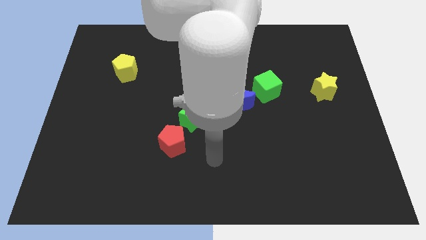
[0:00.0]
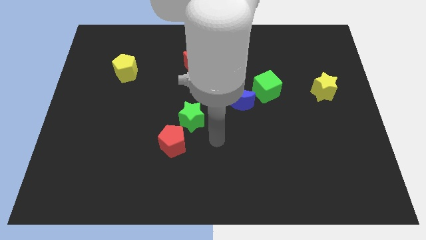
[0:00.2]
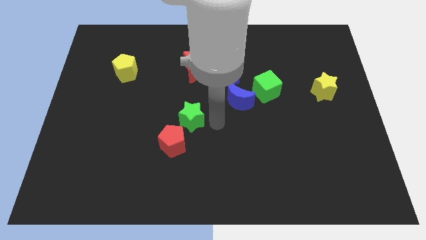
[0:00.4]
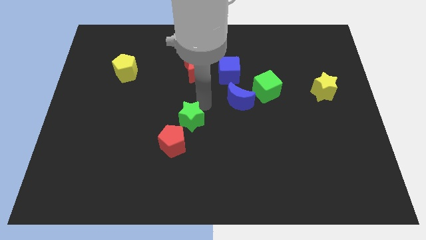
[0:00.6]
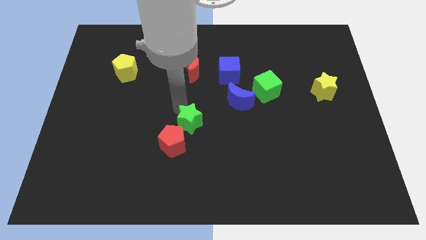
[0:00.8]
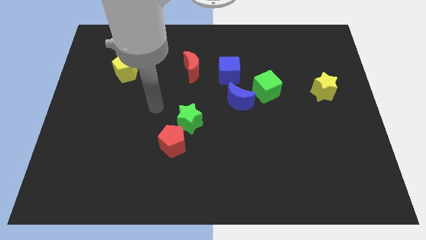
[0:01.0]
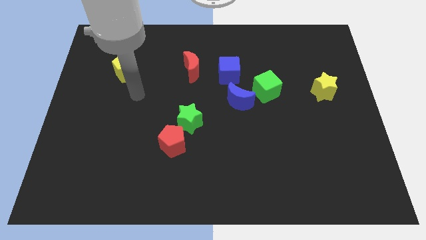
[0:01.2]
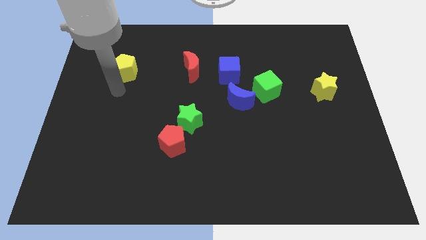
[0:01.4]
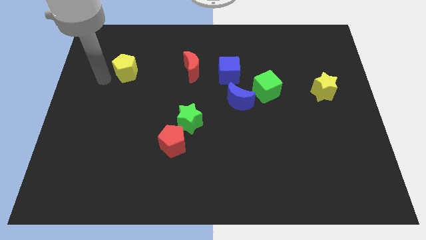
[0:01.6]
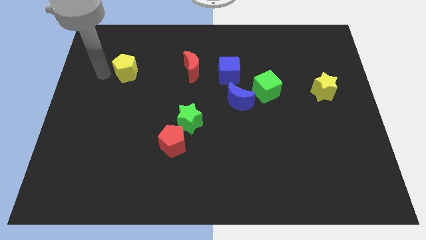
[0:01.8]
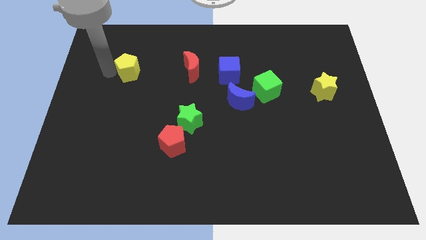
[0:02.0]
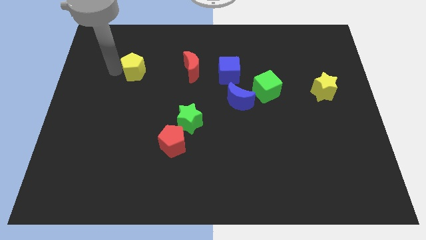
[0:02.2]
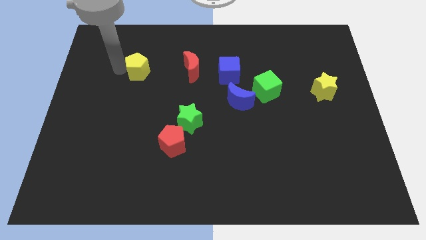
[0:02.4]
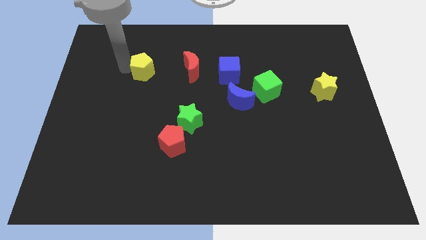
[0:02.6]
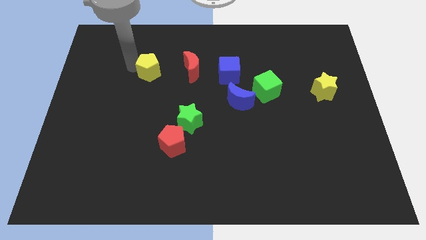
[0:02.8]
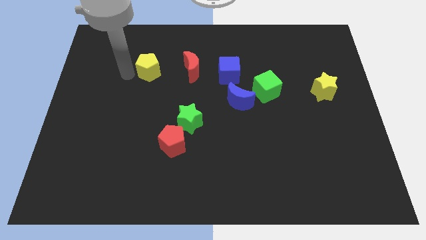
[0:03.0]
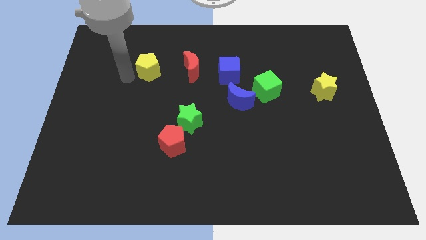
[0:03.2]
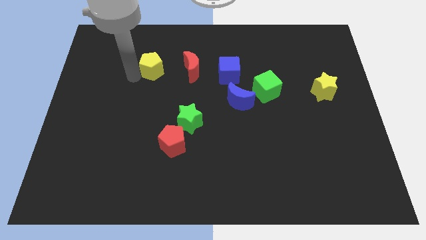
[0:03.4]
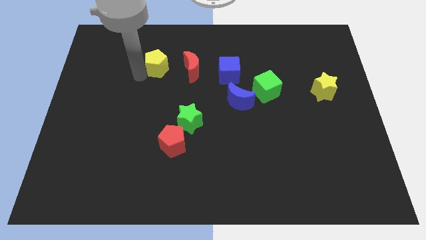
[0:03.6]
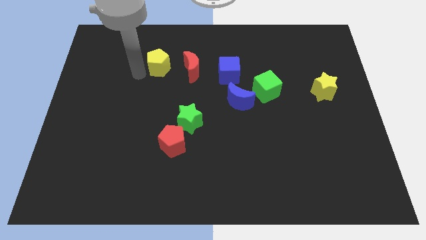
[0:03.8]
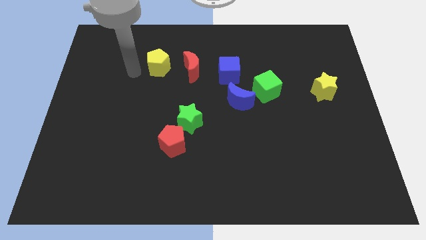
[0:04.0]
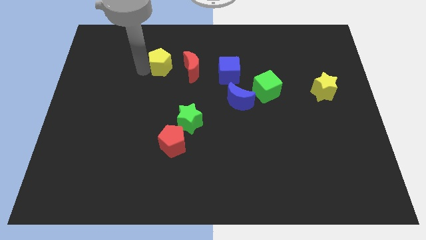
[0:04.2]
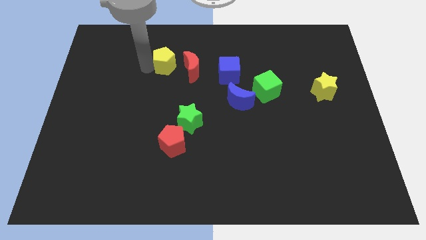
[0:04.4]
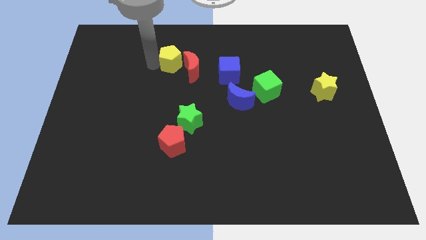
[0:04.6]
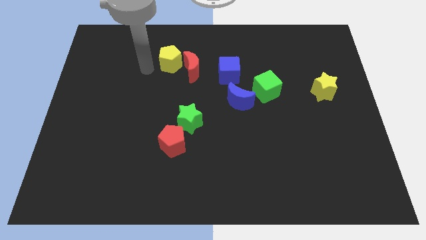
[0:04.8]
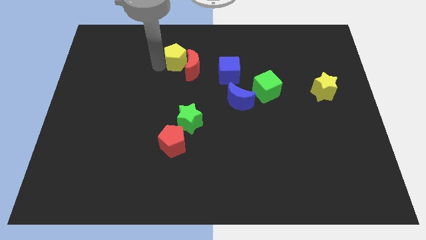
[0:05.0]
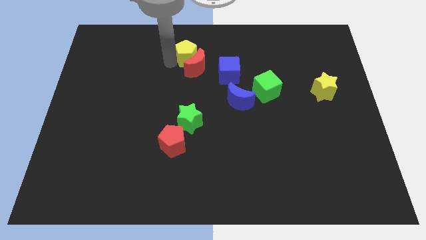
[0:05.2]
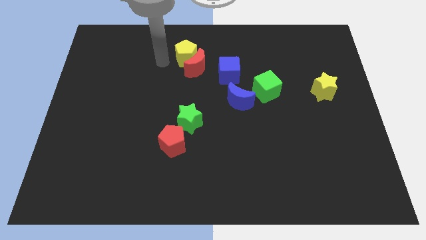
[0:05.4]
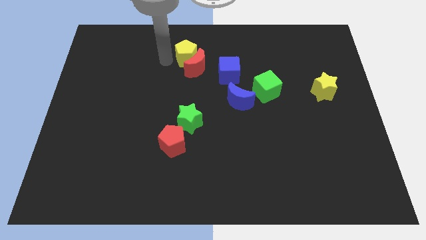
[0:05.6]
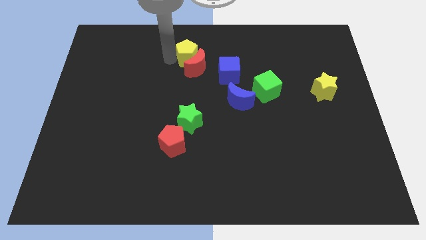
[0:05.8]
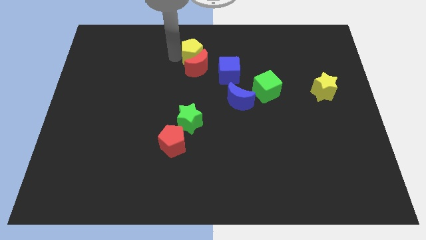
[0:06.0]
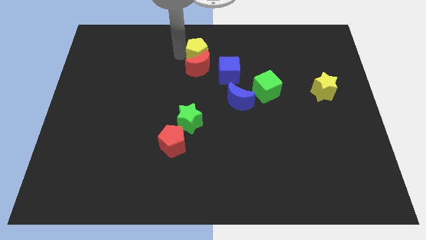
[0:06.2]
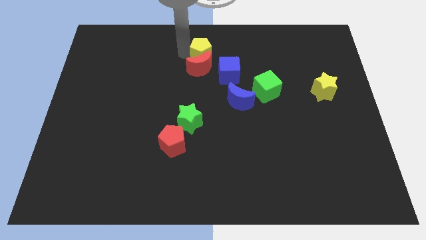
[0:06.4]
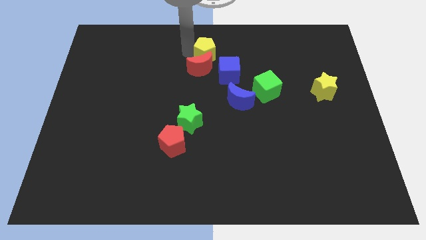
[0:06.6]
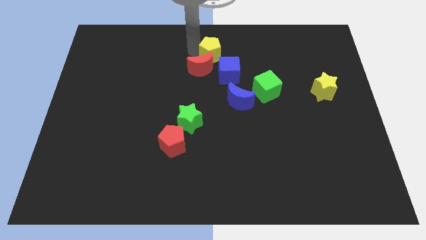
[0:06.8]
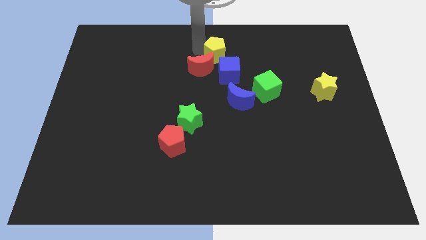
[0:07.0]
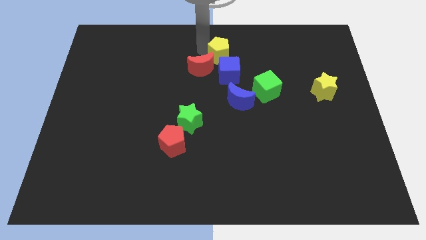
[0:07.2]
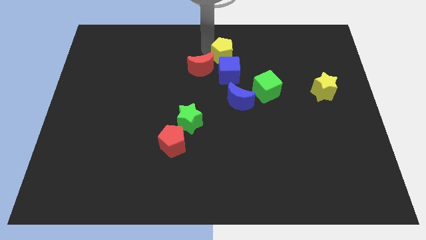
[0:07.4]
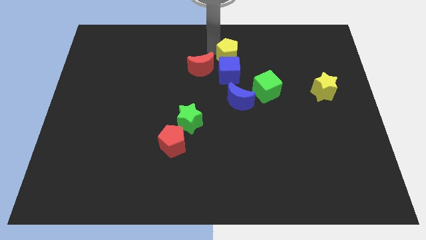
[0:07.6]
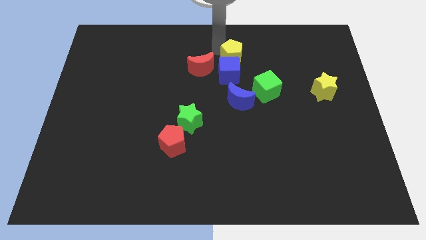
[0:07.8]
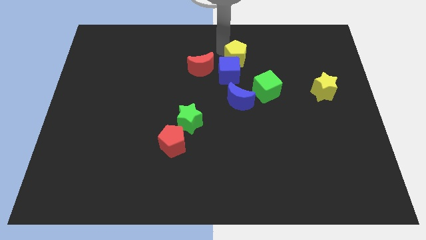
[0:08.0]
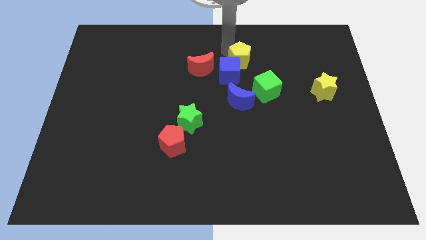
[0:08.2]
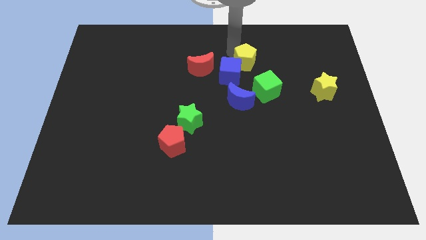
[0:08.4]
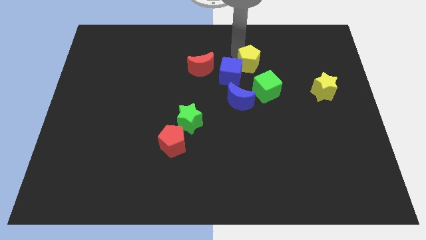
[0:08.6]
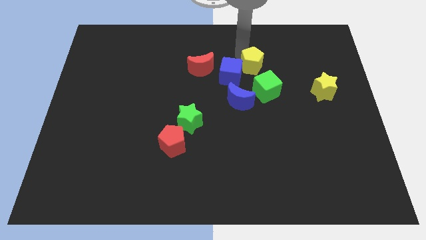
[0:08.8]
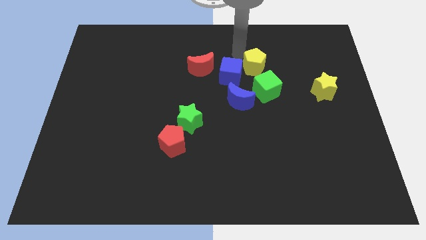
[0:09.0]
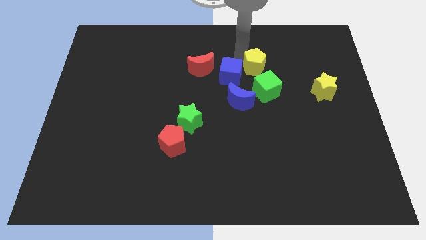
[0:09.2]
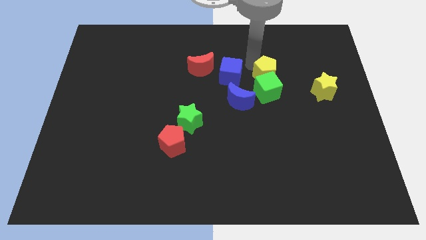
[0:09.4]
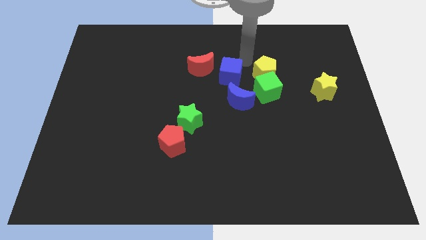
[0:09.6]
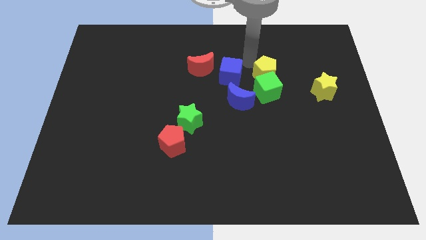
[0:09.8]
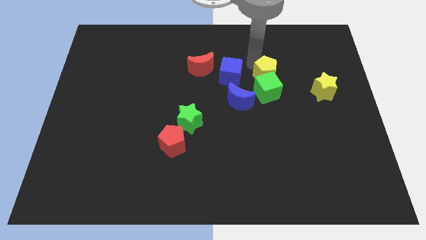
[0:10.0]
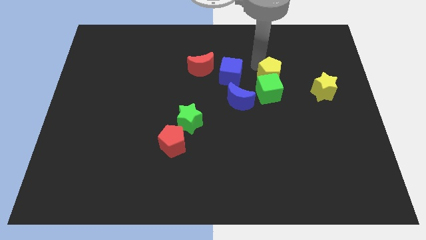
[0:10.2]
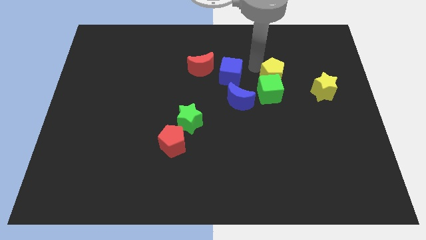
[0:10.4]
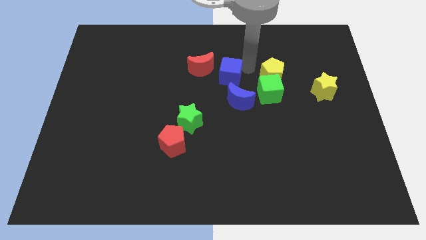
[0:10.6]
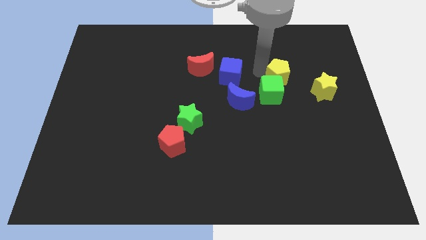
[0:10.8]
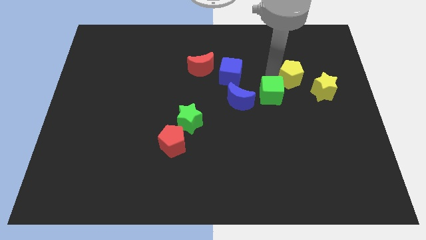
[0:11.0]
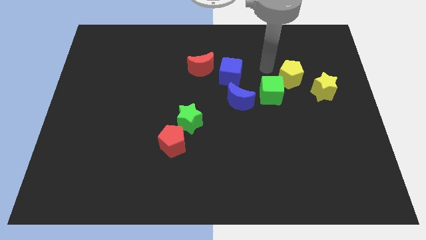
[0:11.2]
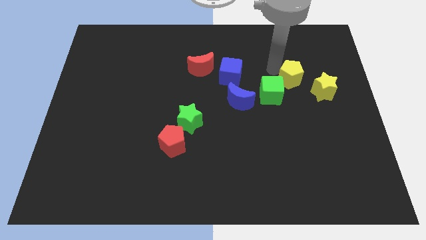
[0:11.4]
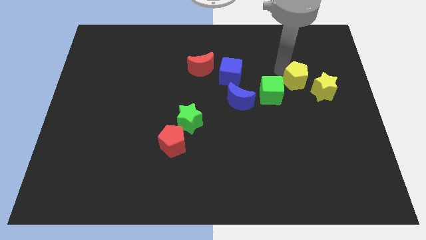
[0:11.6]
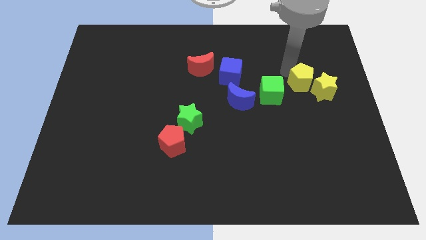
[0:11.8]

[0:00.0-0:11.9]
push the yellow pentagon to the yellow star

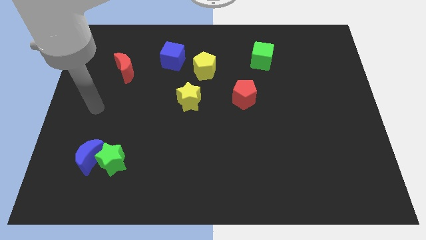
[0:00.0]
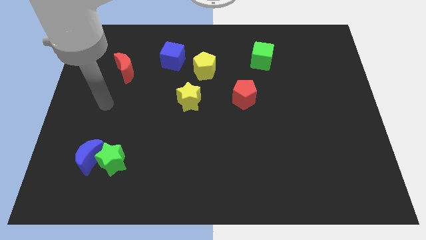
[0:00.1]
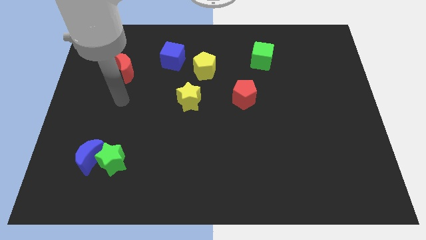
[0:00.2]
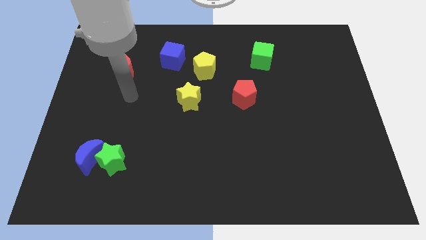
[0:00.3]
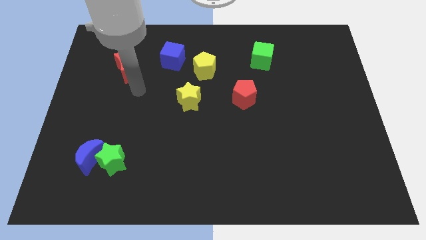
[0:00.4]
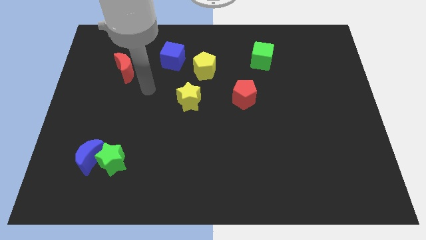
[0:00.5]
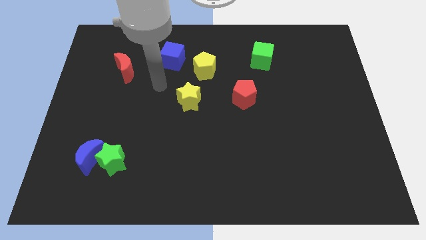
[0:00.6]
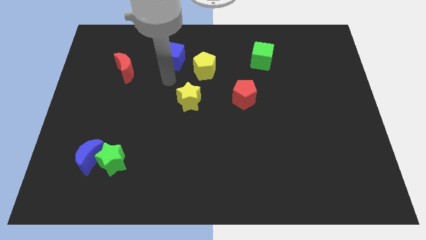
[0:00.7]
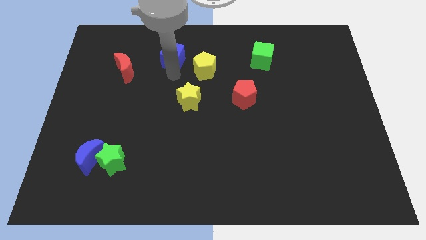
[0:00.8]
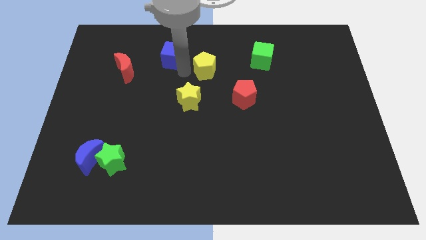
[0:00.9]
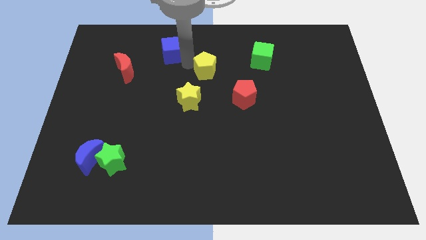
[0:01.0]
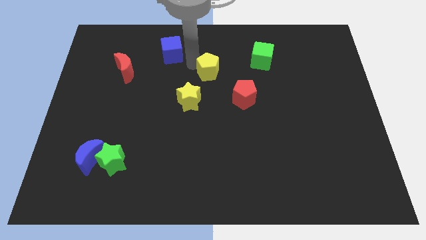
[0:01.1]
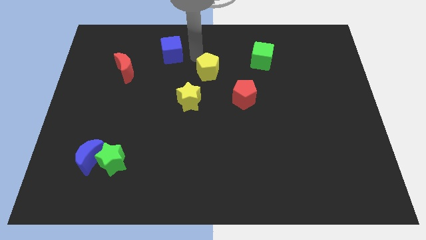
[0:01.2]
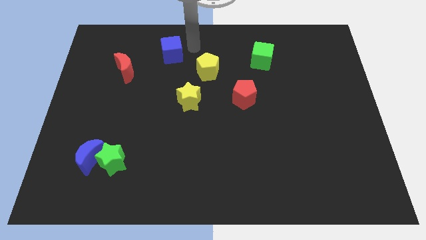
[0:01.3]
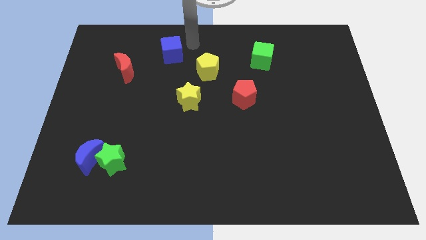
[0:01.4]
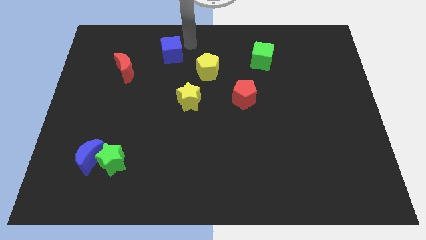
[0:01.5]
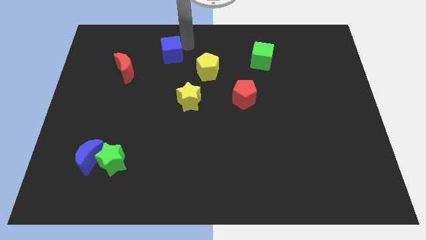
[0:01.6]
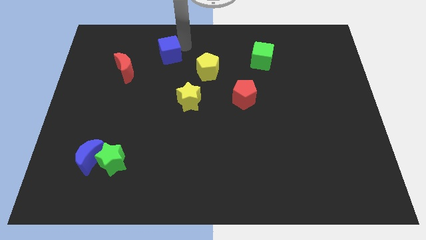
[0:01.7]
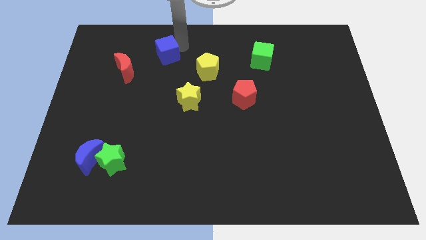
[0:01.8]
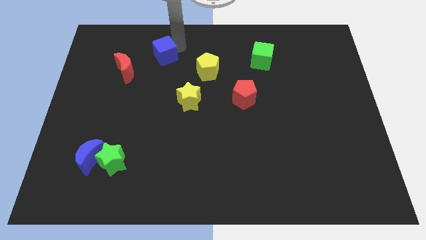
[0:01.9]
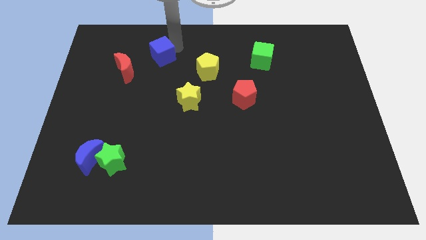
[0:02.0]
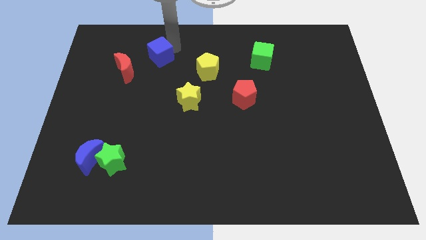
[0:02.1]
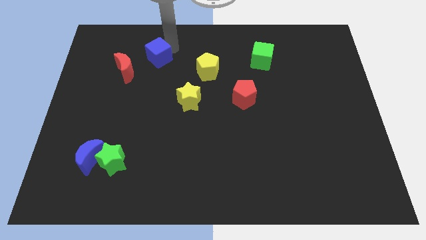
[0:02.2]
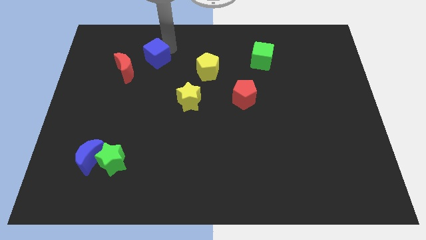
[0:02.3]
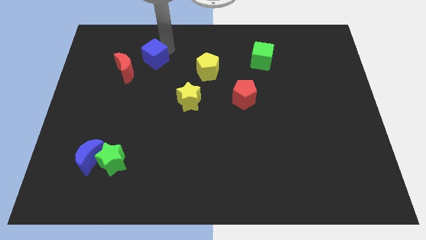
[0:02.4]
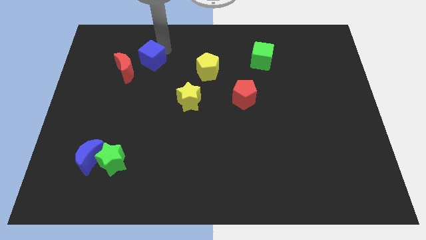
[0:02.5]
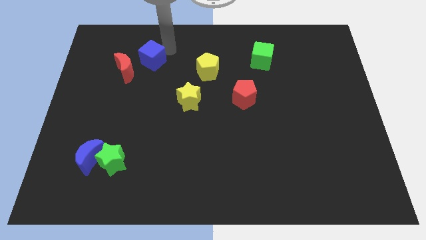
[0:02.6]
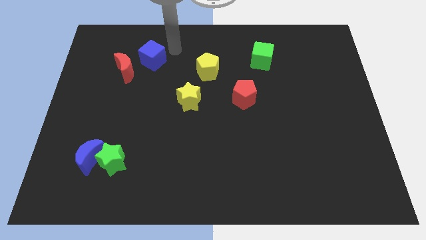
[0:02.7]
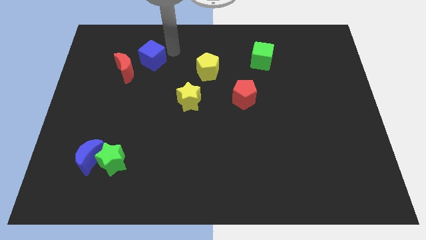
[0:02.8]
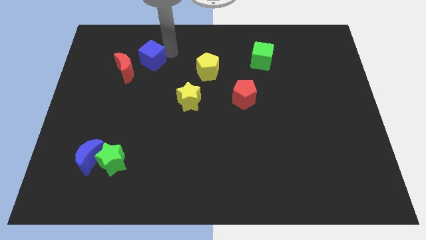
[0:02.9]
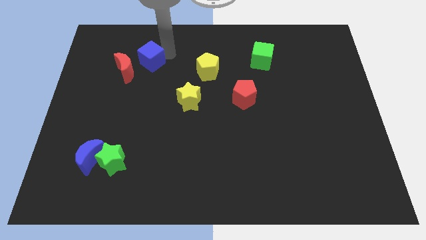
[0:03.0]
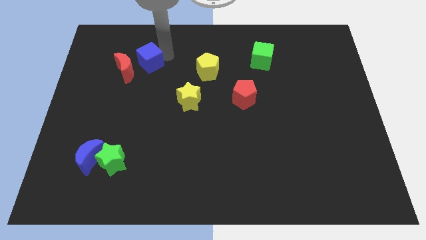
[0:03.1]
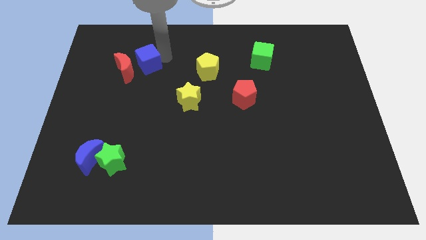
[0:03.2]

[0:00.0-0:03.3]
push the blue cube towards the red moon
